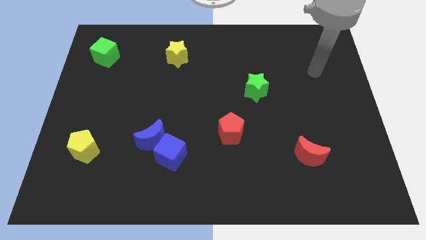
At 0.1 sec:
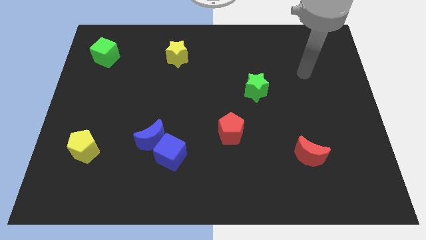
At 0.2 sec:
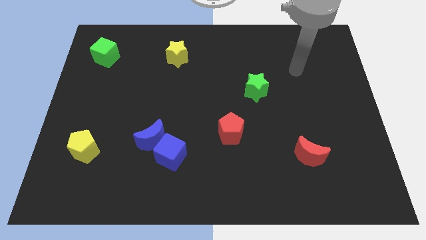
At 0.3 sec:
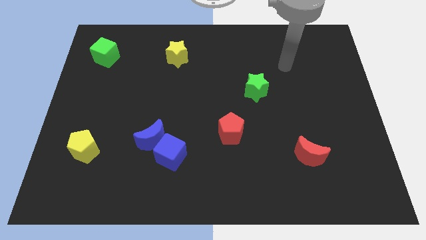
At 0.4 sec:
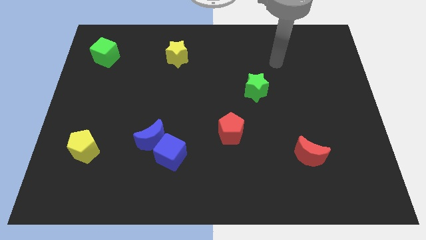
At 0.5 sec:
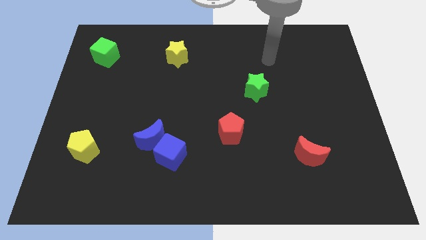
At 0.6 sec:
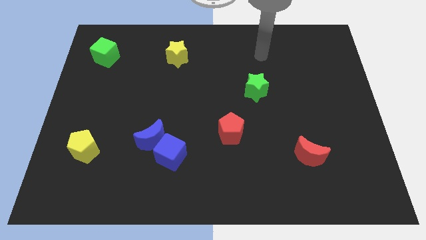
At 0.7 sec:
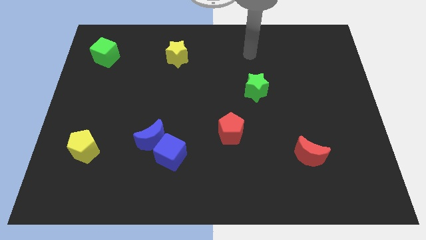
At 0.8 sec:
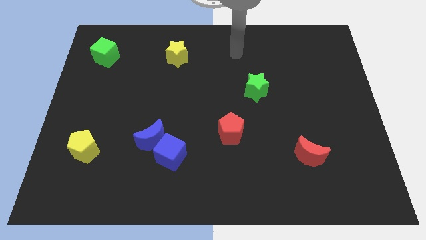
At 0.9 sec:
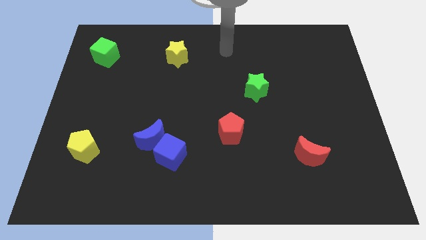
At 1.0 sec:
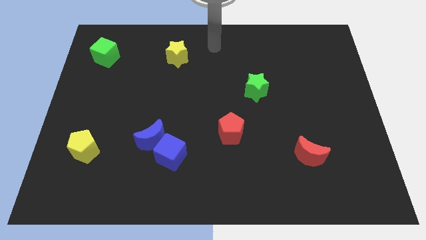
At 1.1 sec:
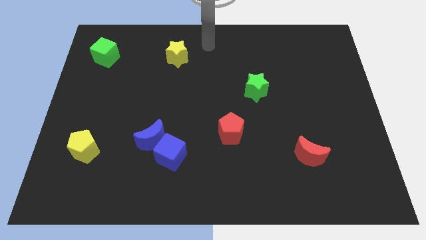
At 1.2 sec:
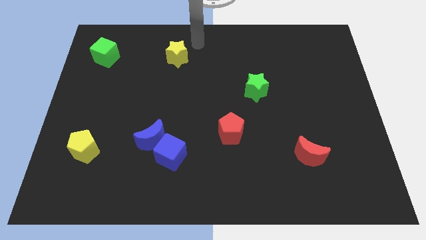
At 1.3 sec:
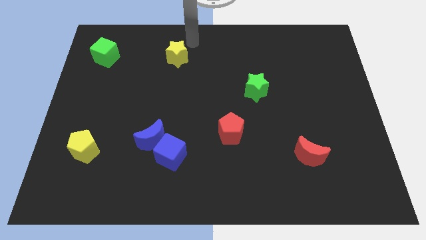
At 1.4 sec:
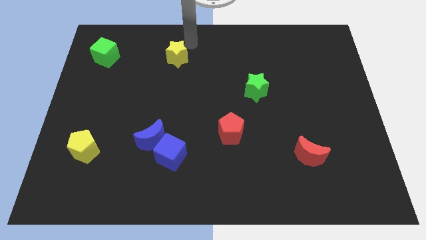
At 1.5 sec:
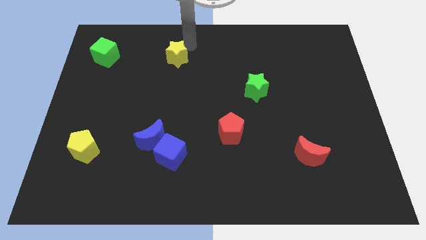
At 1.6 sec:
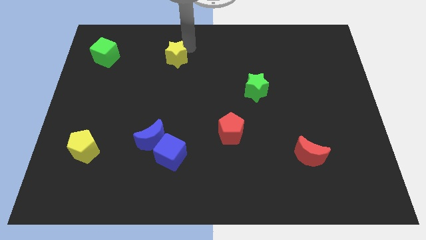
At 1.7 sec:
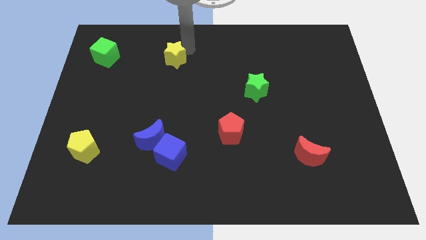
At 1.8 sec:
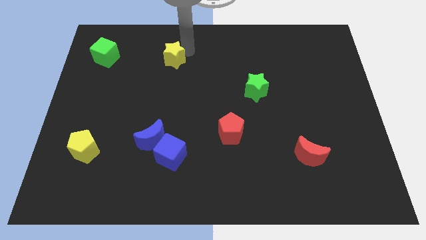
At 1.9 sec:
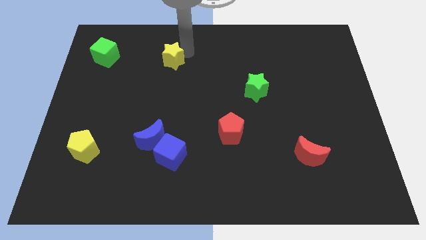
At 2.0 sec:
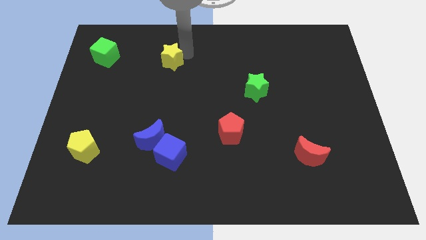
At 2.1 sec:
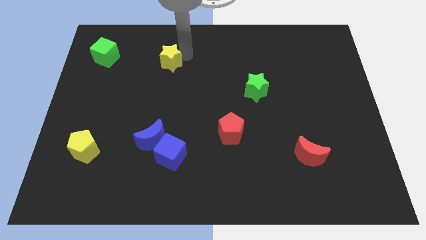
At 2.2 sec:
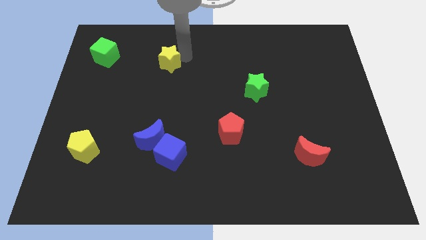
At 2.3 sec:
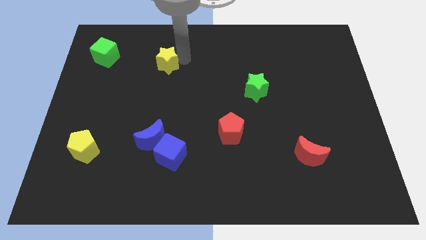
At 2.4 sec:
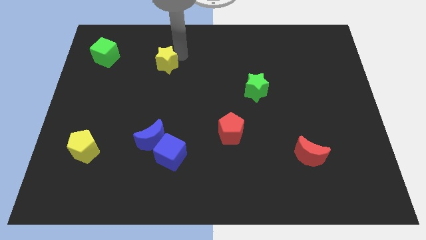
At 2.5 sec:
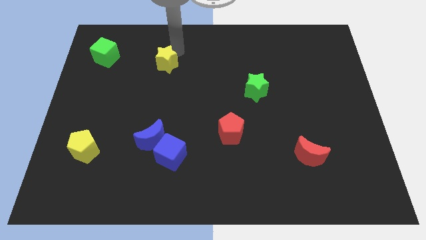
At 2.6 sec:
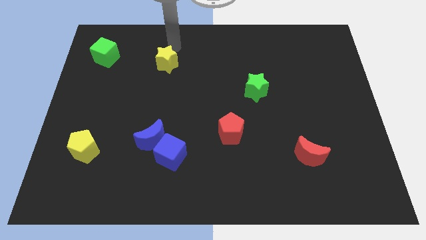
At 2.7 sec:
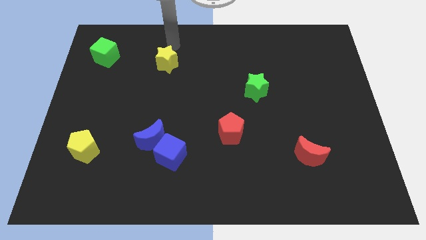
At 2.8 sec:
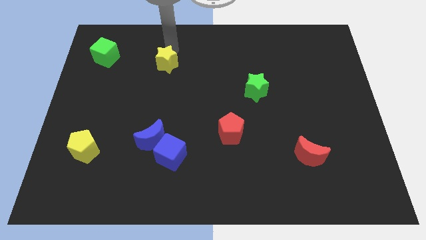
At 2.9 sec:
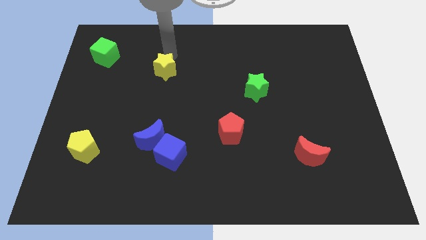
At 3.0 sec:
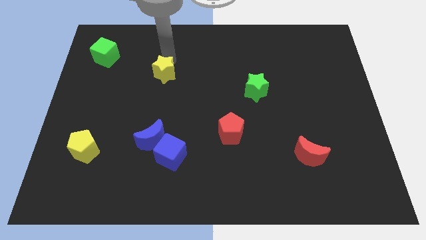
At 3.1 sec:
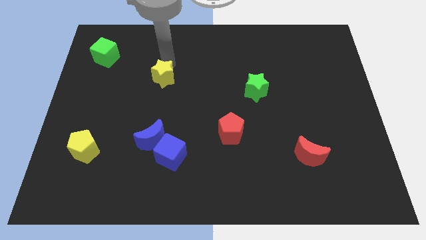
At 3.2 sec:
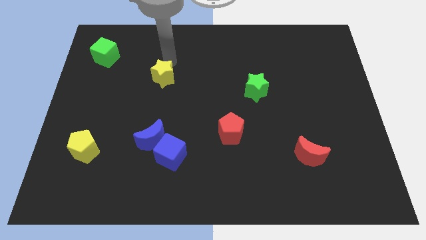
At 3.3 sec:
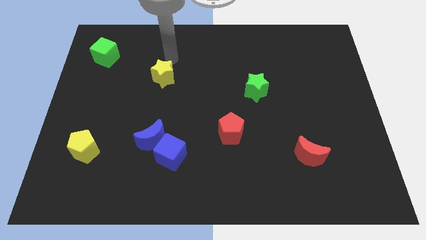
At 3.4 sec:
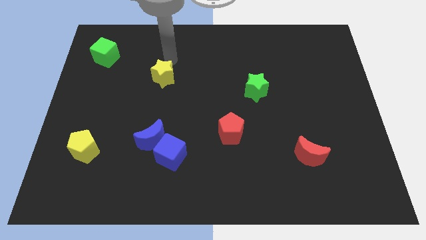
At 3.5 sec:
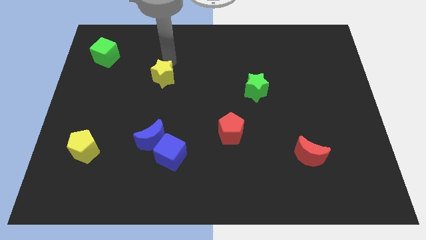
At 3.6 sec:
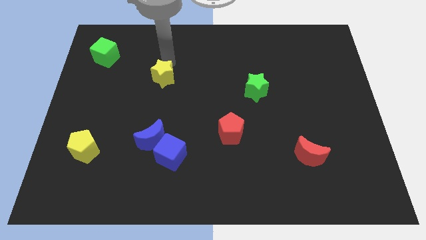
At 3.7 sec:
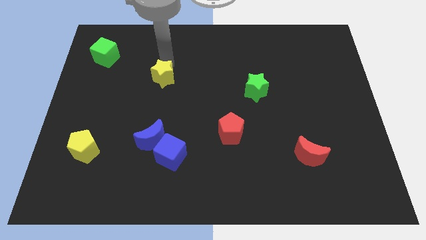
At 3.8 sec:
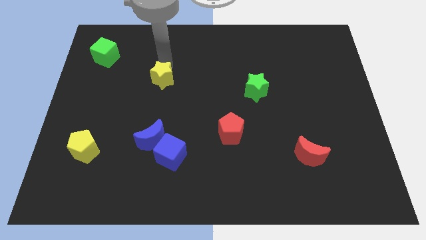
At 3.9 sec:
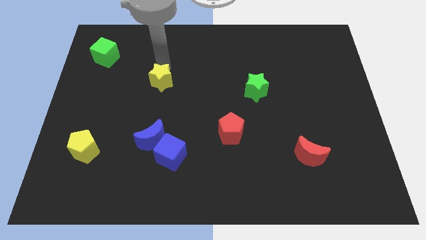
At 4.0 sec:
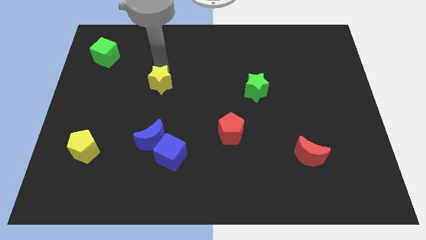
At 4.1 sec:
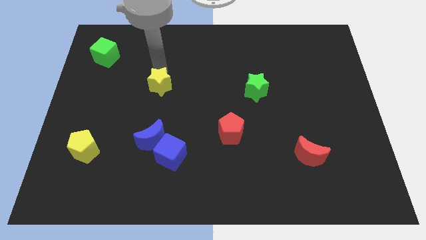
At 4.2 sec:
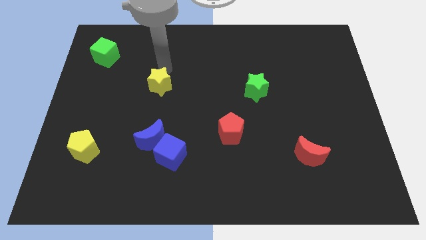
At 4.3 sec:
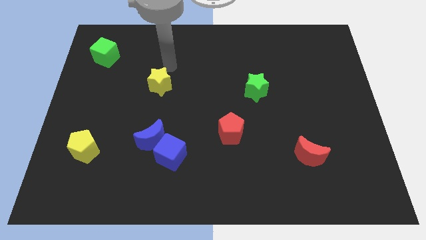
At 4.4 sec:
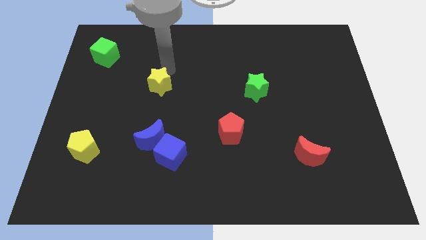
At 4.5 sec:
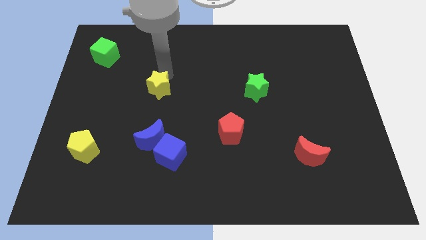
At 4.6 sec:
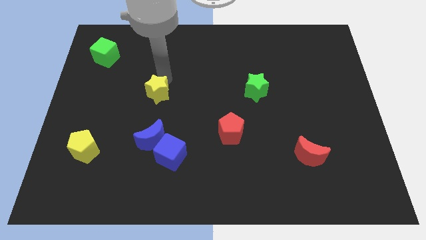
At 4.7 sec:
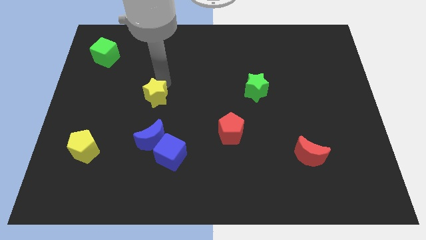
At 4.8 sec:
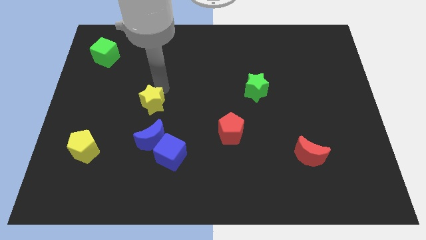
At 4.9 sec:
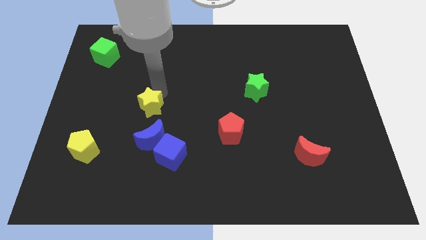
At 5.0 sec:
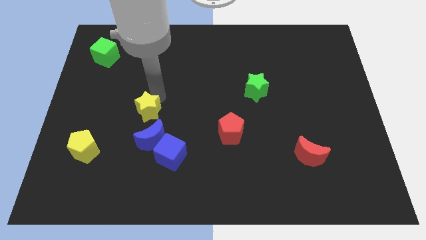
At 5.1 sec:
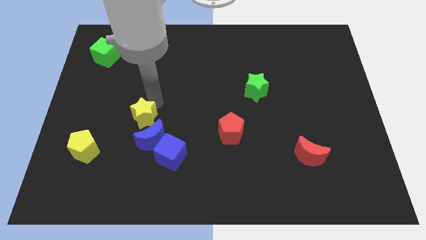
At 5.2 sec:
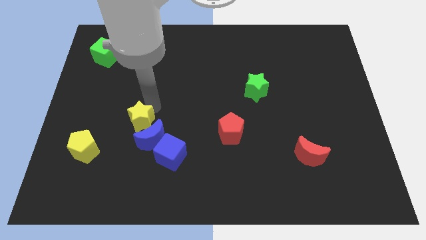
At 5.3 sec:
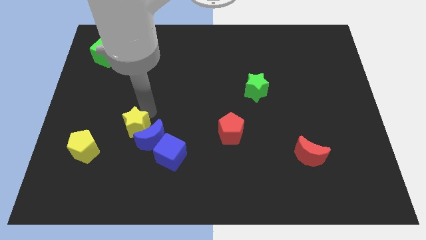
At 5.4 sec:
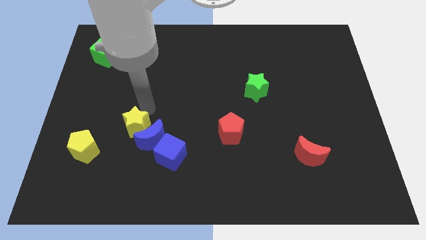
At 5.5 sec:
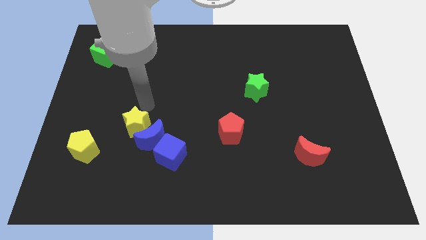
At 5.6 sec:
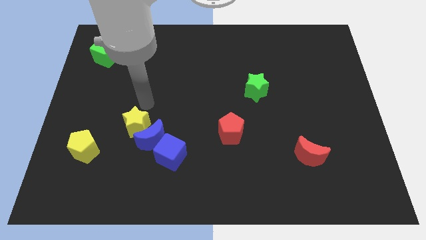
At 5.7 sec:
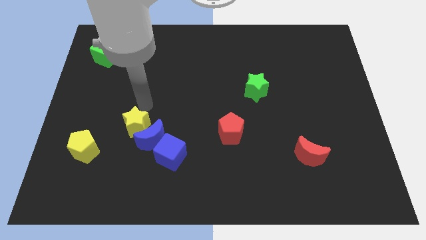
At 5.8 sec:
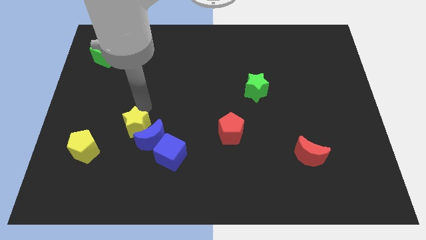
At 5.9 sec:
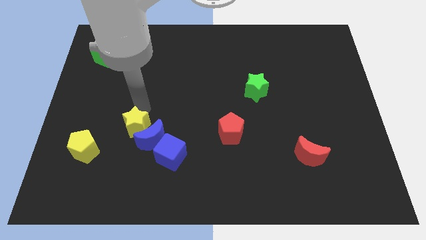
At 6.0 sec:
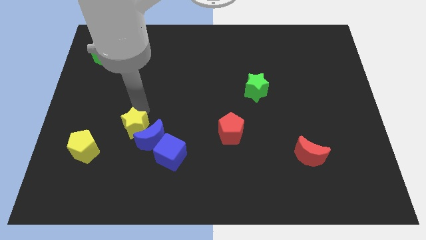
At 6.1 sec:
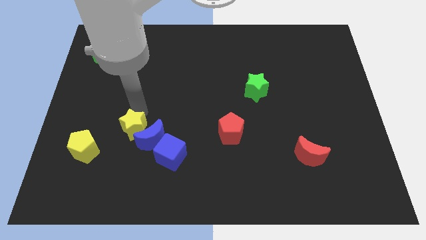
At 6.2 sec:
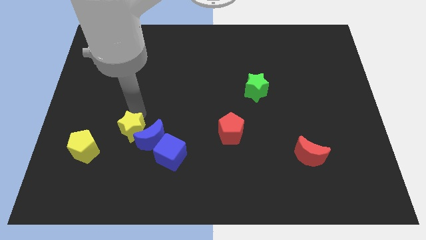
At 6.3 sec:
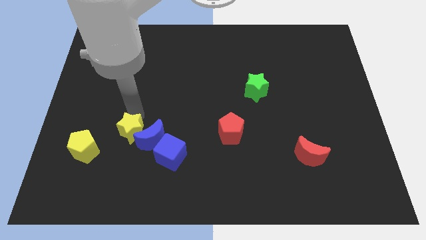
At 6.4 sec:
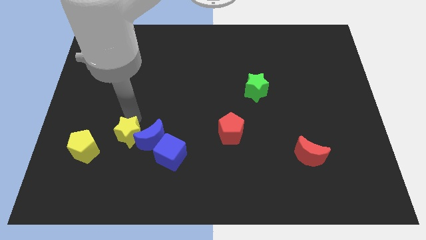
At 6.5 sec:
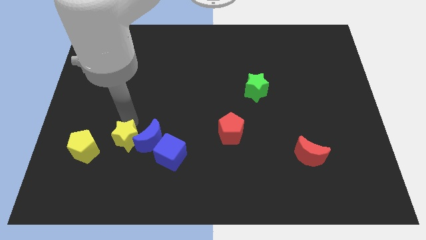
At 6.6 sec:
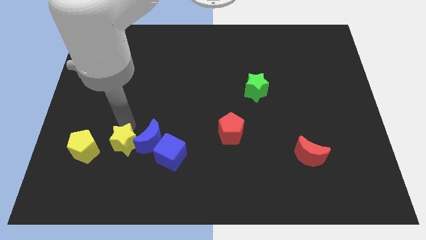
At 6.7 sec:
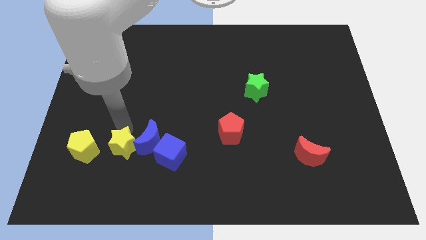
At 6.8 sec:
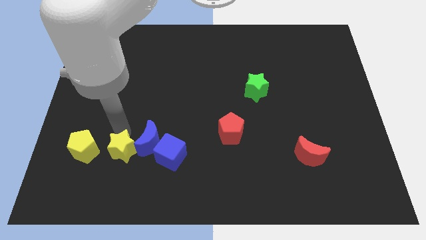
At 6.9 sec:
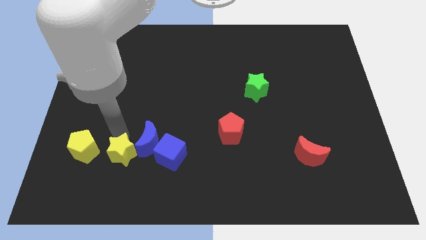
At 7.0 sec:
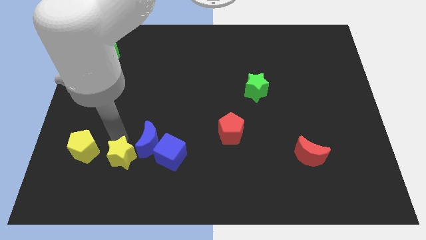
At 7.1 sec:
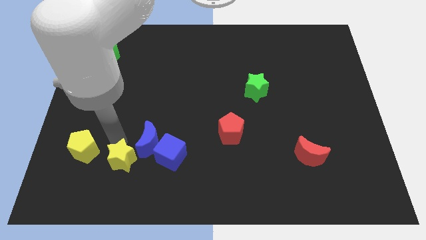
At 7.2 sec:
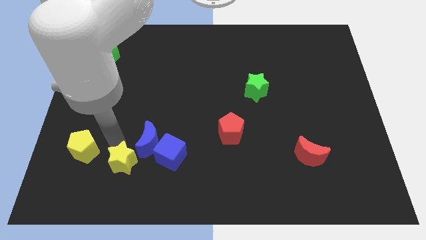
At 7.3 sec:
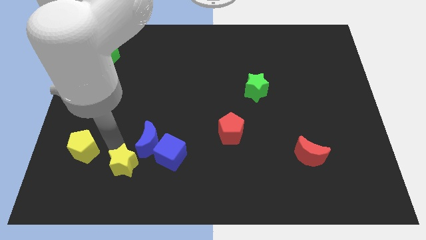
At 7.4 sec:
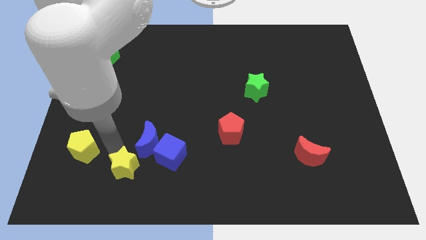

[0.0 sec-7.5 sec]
slide the yellow star diagonally down and to the left of the blue cube
